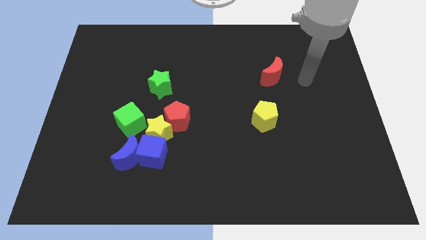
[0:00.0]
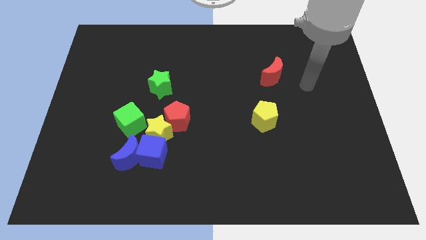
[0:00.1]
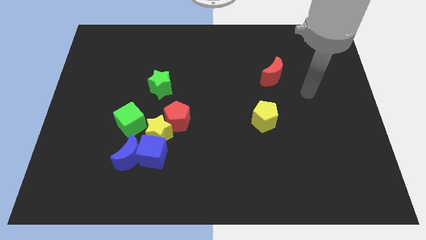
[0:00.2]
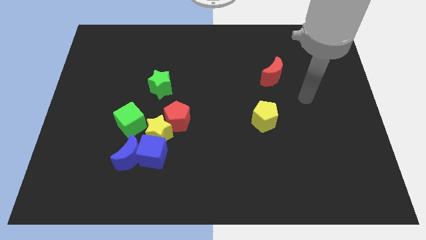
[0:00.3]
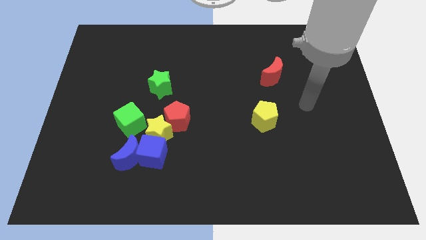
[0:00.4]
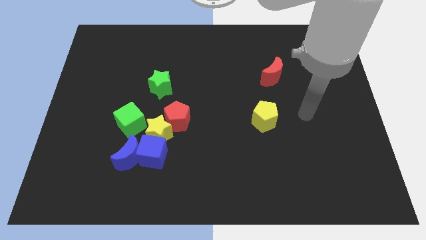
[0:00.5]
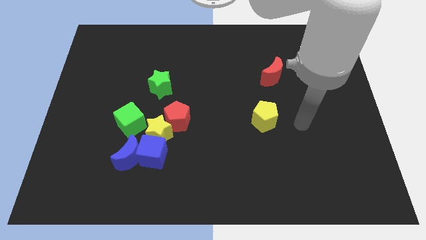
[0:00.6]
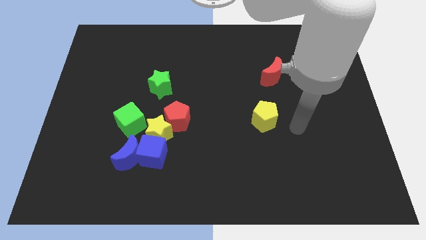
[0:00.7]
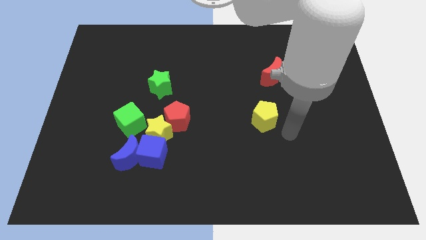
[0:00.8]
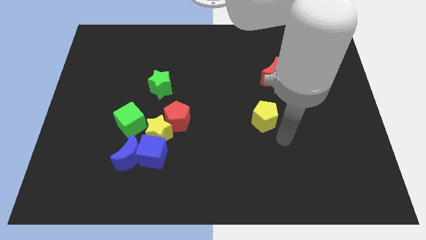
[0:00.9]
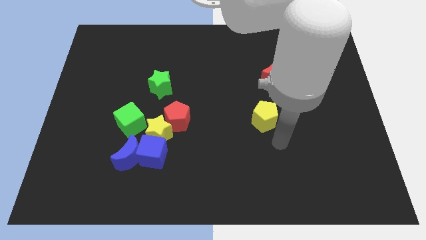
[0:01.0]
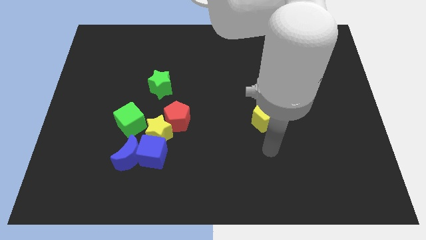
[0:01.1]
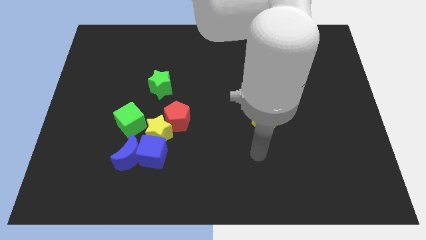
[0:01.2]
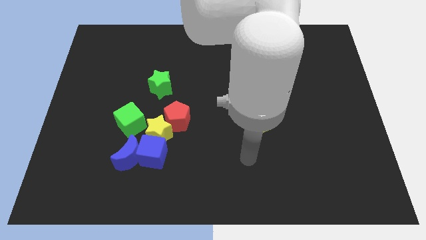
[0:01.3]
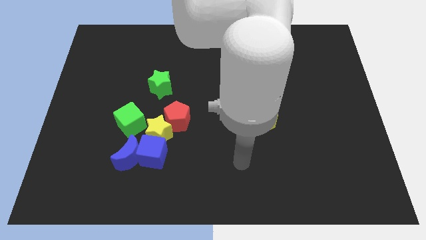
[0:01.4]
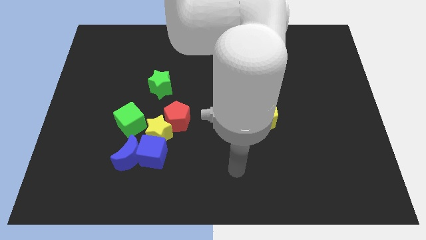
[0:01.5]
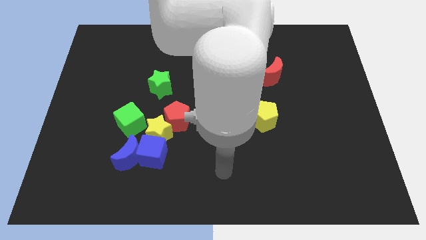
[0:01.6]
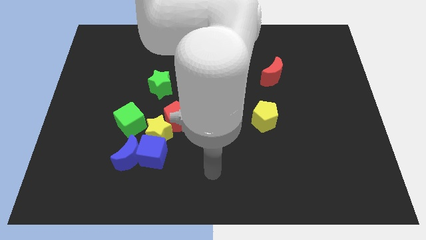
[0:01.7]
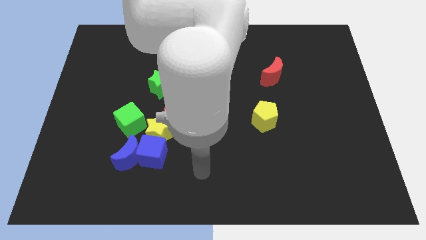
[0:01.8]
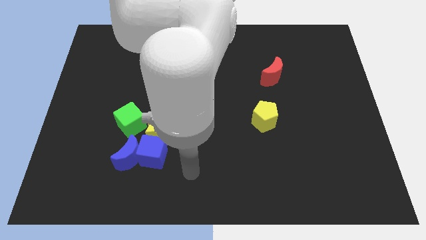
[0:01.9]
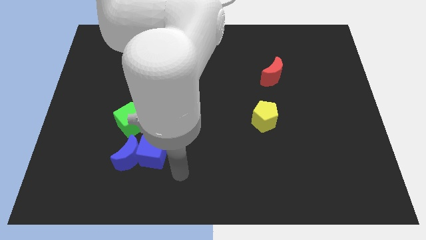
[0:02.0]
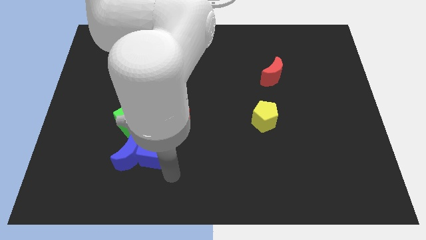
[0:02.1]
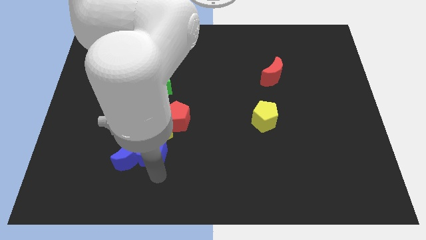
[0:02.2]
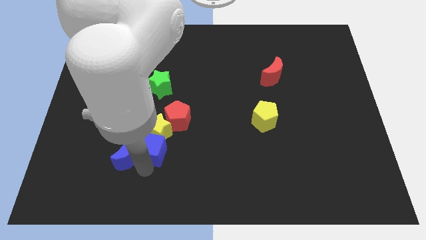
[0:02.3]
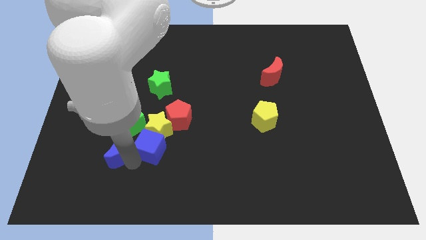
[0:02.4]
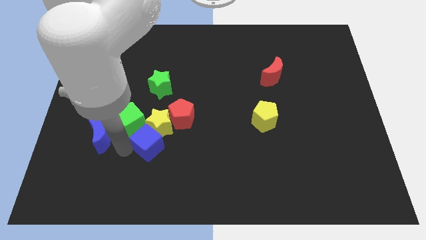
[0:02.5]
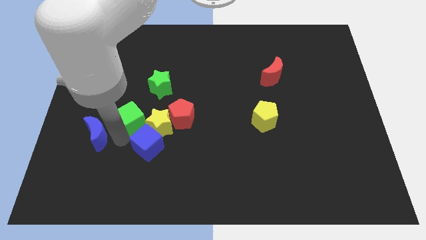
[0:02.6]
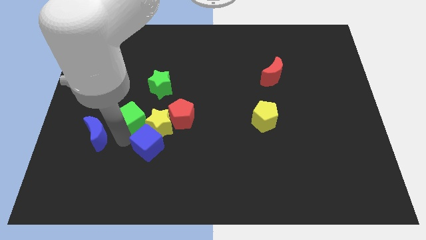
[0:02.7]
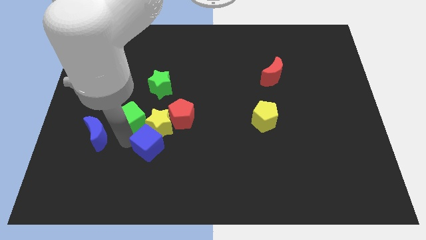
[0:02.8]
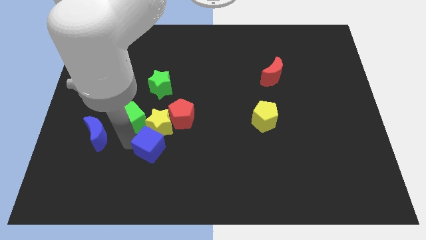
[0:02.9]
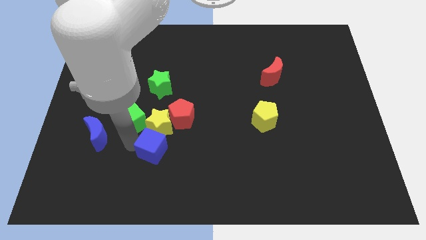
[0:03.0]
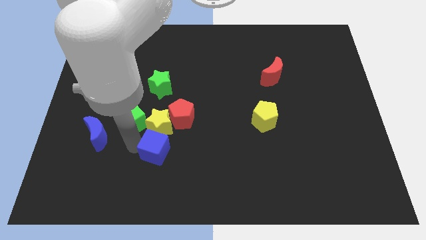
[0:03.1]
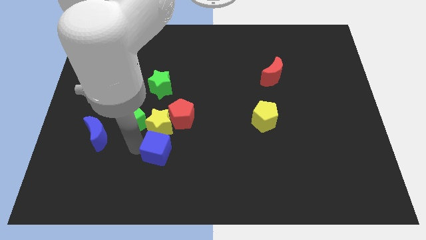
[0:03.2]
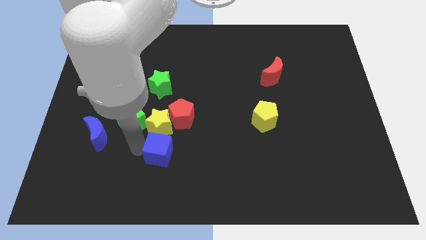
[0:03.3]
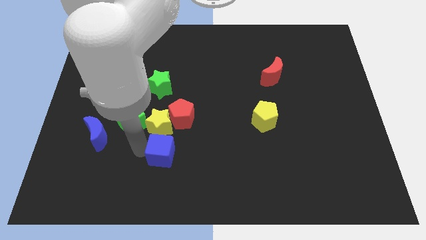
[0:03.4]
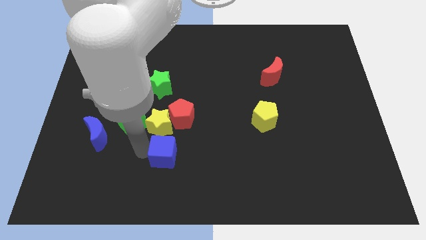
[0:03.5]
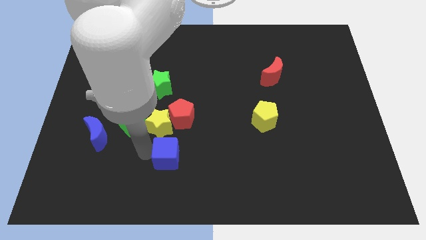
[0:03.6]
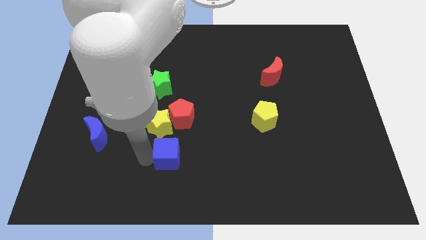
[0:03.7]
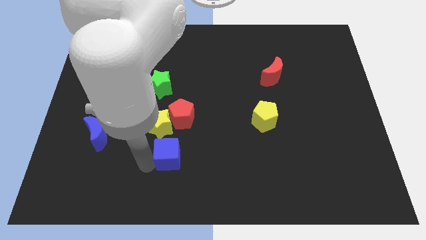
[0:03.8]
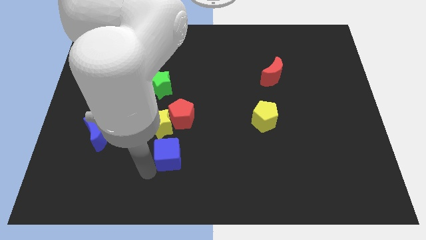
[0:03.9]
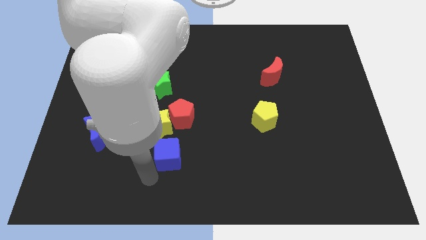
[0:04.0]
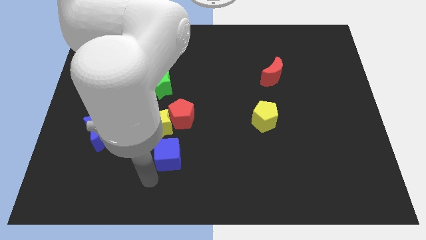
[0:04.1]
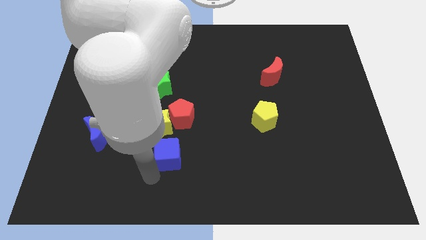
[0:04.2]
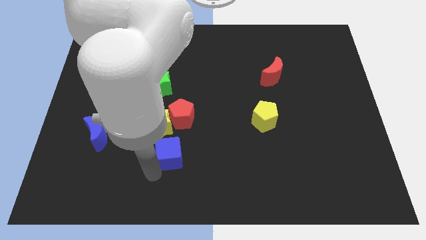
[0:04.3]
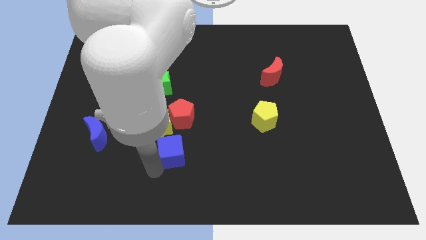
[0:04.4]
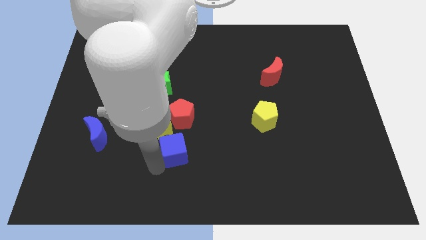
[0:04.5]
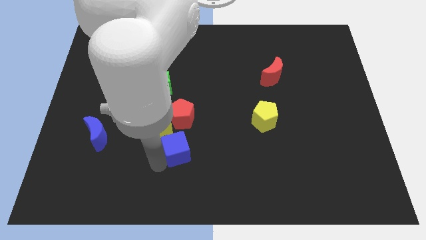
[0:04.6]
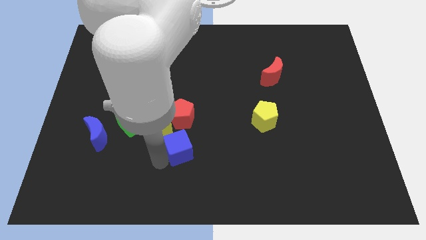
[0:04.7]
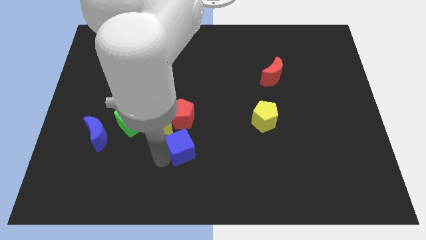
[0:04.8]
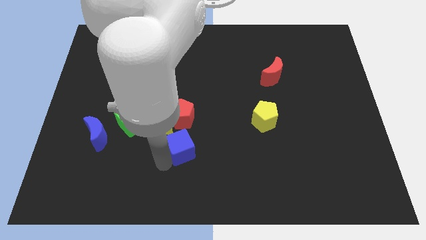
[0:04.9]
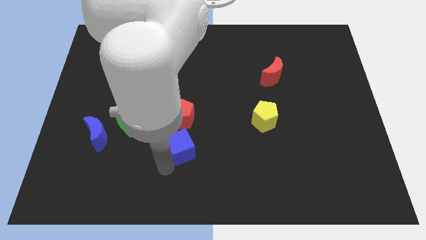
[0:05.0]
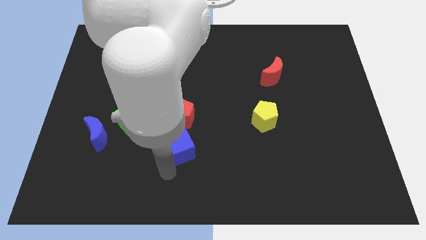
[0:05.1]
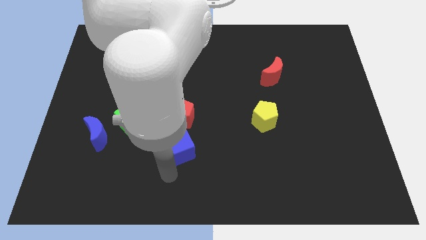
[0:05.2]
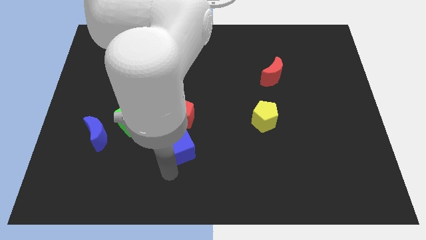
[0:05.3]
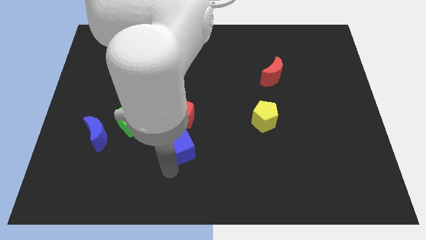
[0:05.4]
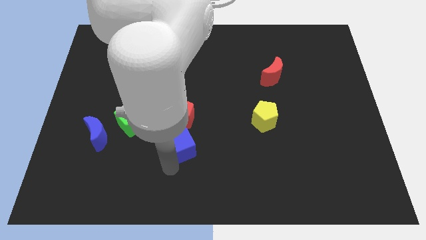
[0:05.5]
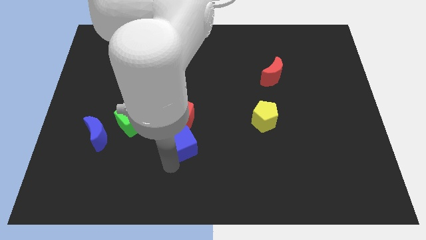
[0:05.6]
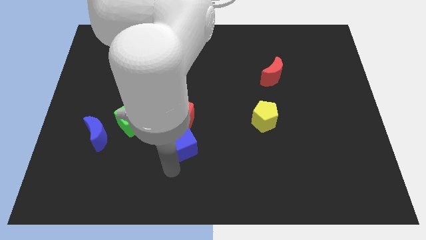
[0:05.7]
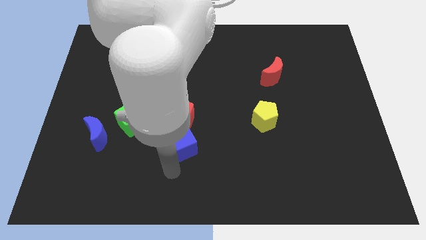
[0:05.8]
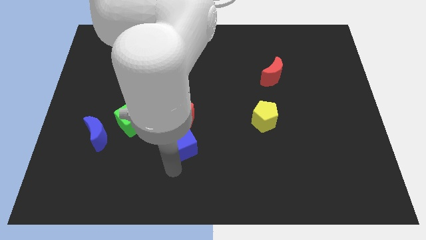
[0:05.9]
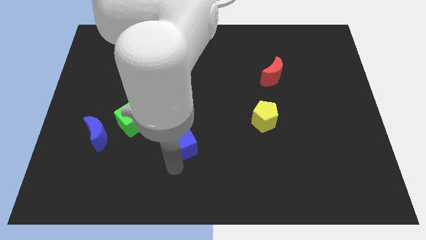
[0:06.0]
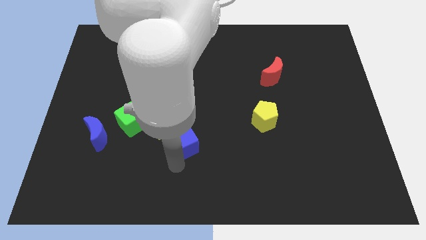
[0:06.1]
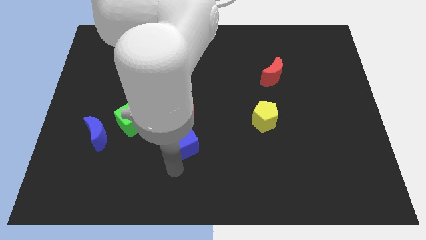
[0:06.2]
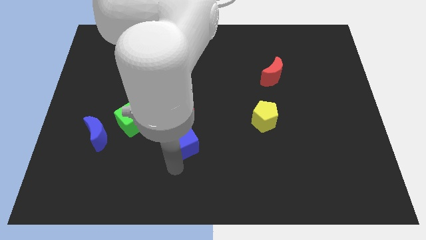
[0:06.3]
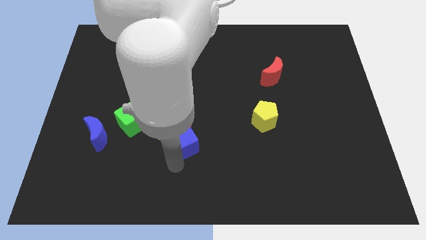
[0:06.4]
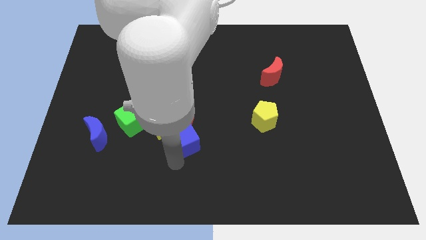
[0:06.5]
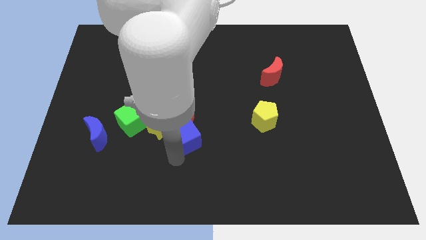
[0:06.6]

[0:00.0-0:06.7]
slightly move the blue cube upwards and to the right diagonally

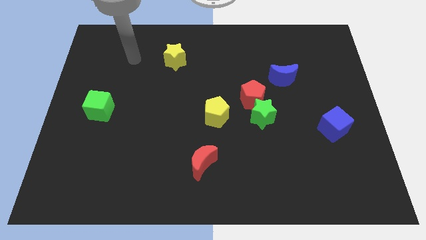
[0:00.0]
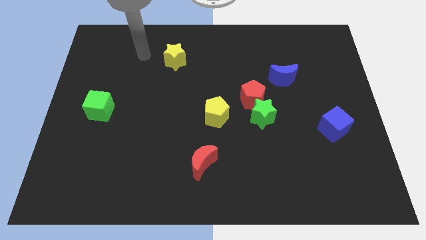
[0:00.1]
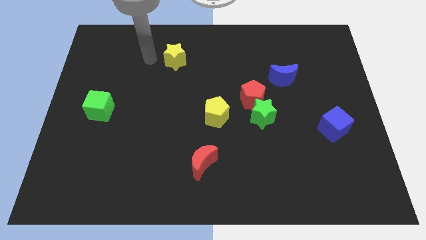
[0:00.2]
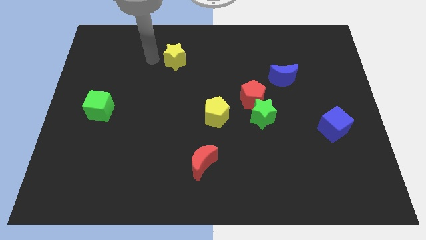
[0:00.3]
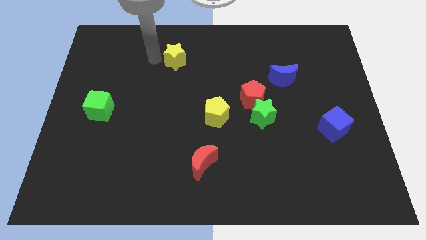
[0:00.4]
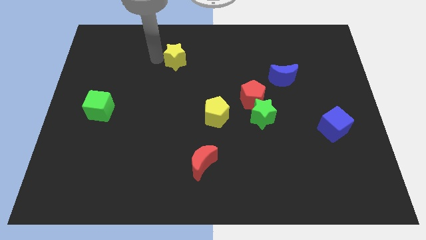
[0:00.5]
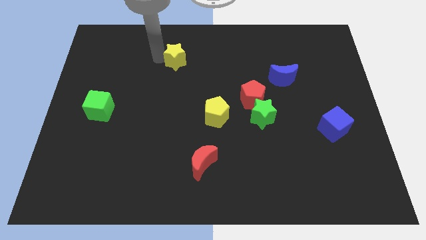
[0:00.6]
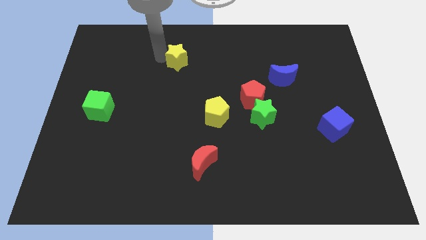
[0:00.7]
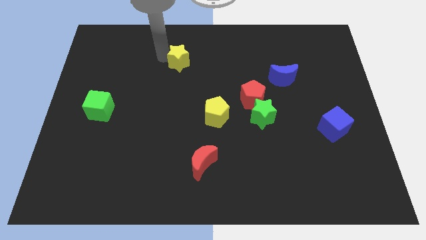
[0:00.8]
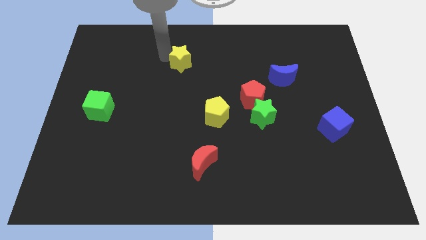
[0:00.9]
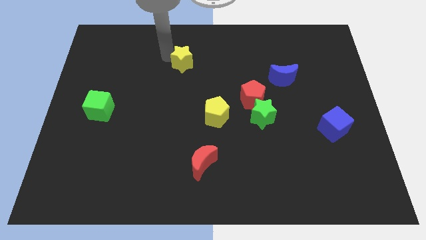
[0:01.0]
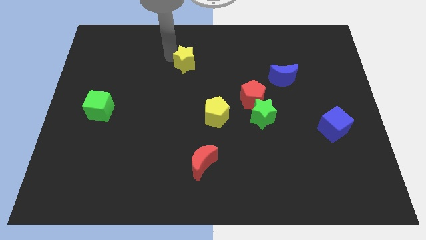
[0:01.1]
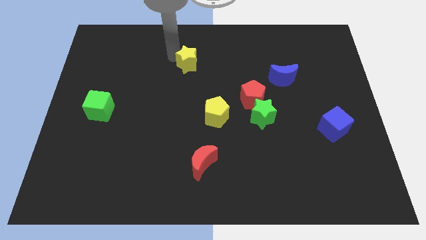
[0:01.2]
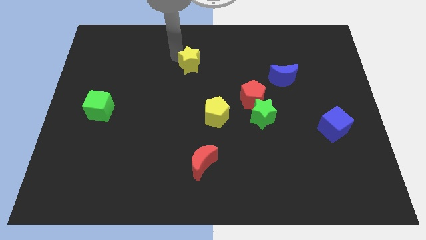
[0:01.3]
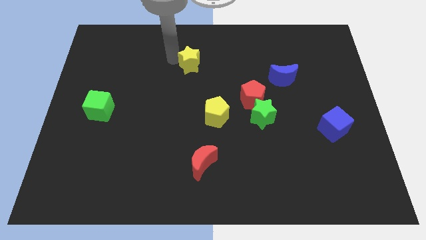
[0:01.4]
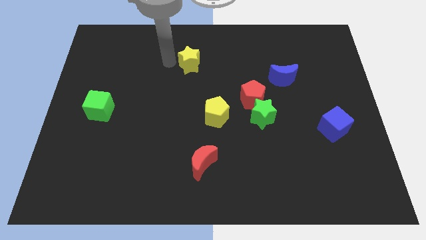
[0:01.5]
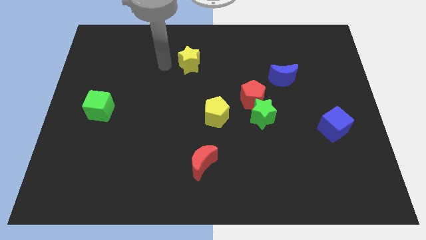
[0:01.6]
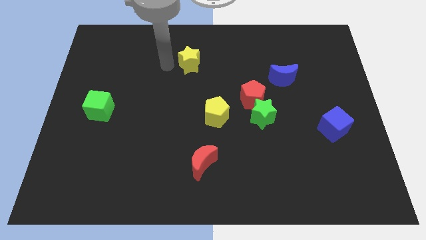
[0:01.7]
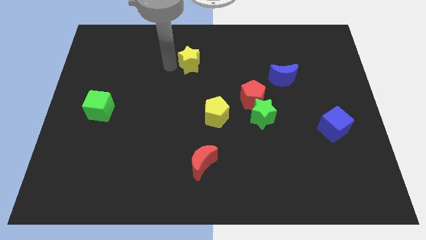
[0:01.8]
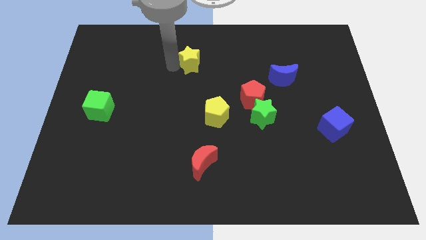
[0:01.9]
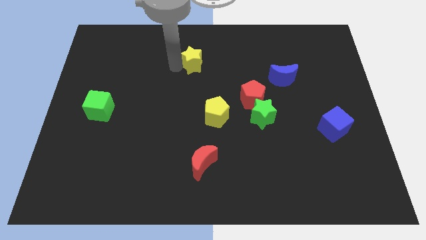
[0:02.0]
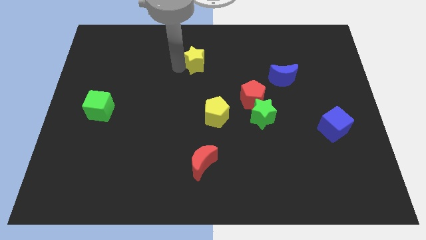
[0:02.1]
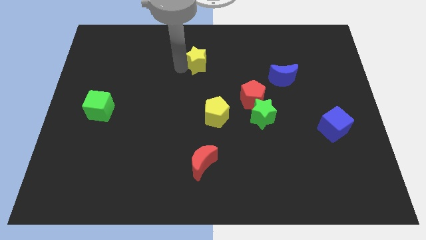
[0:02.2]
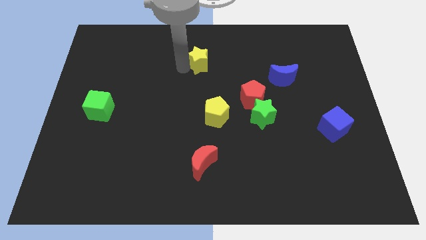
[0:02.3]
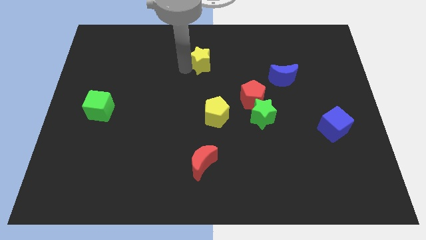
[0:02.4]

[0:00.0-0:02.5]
push the yellow star a little to the right
